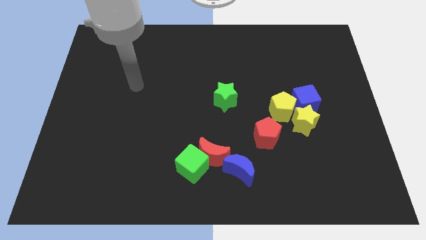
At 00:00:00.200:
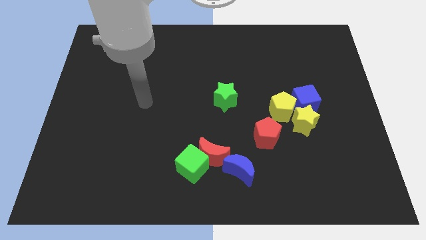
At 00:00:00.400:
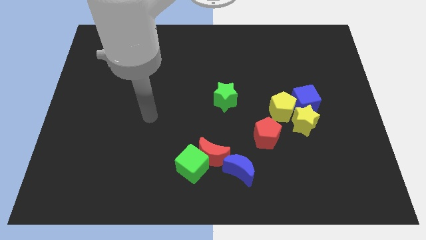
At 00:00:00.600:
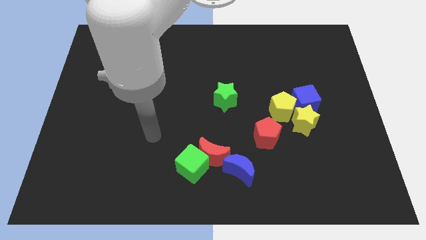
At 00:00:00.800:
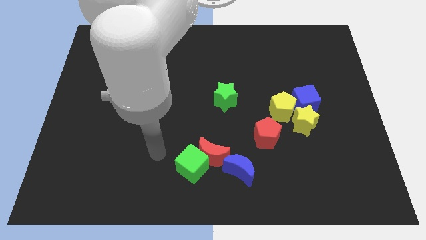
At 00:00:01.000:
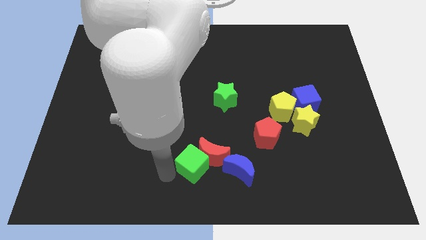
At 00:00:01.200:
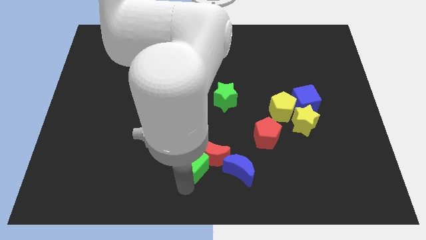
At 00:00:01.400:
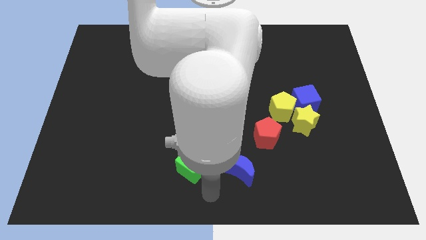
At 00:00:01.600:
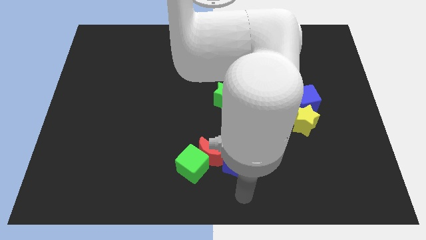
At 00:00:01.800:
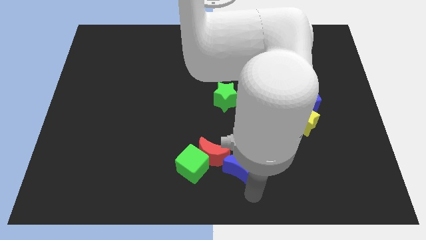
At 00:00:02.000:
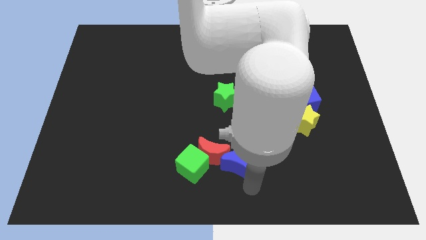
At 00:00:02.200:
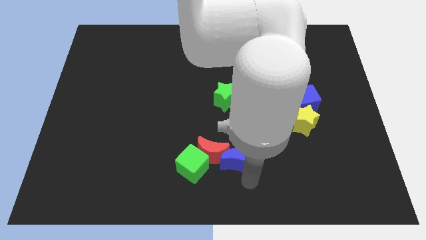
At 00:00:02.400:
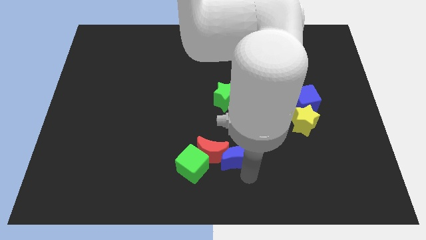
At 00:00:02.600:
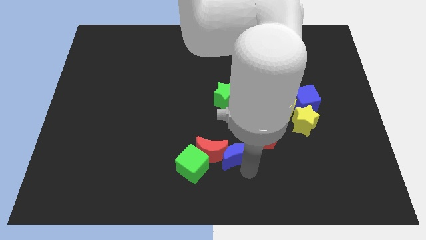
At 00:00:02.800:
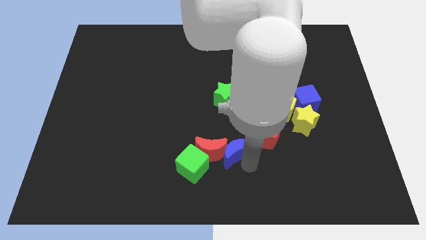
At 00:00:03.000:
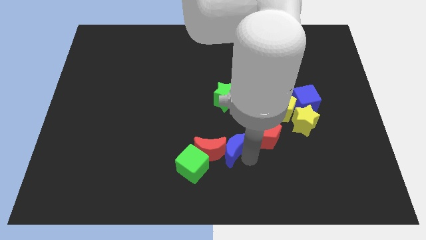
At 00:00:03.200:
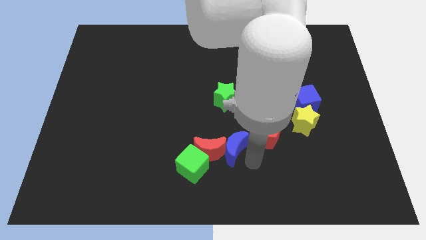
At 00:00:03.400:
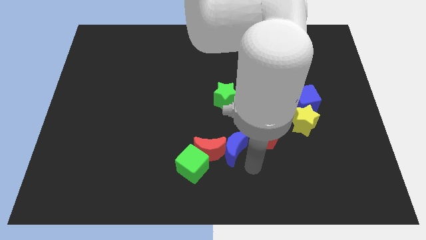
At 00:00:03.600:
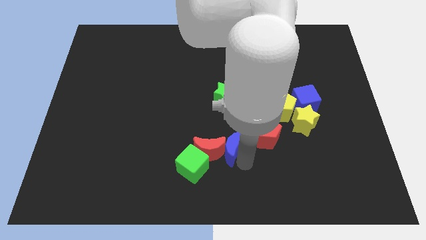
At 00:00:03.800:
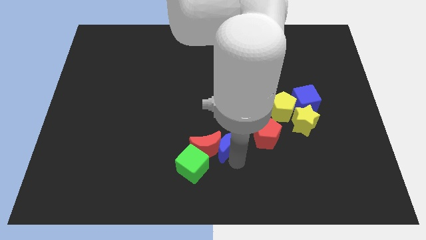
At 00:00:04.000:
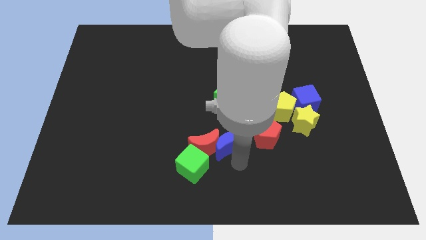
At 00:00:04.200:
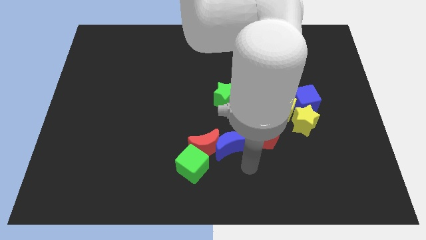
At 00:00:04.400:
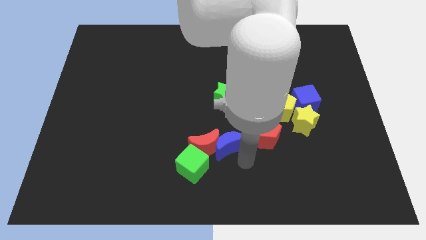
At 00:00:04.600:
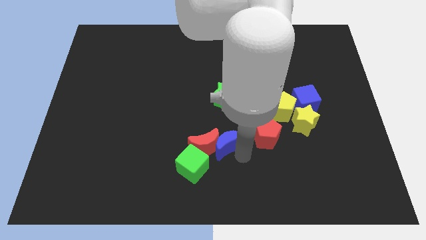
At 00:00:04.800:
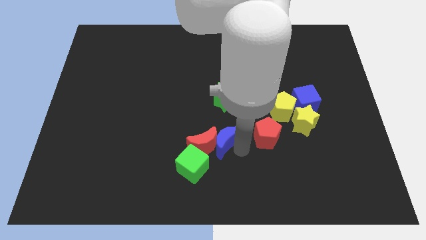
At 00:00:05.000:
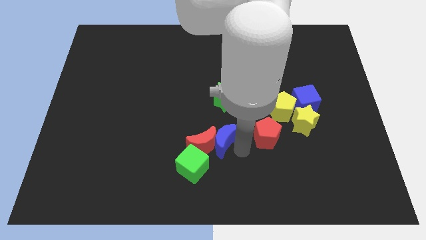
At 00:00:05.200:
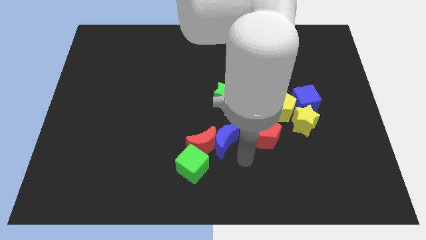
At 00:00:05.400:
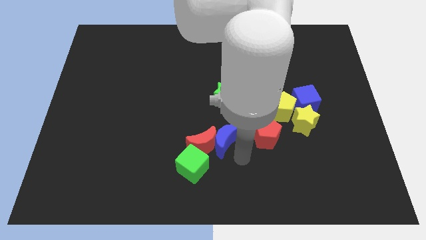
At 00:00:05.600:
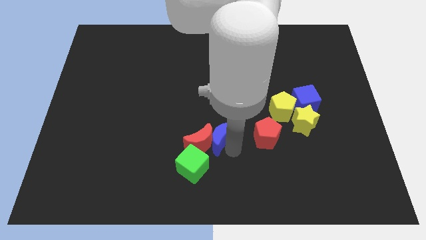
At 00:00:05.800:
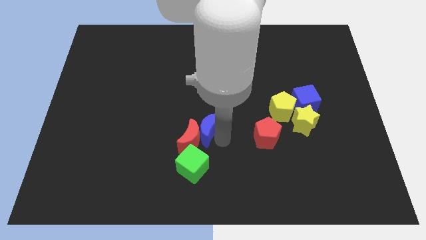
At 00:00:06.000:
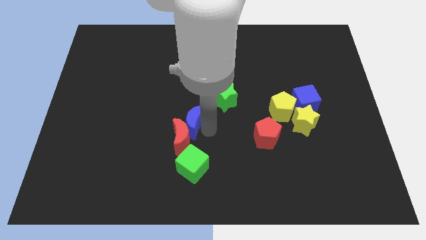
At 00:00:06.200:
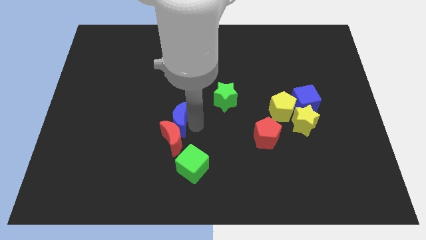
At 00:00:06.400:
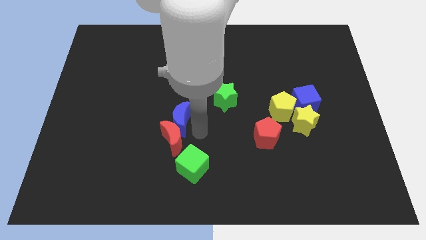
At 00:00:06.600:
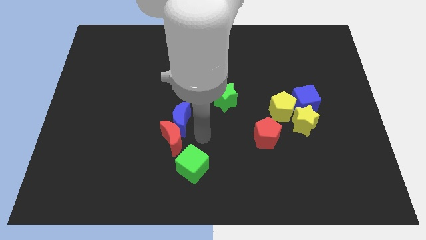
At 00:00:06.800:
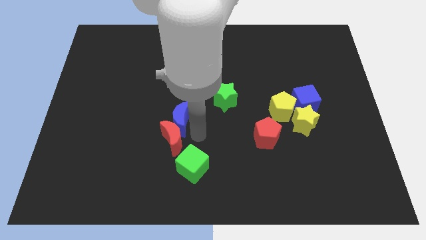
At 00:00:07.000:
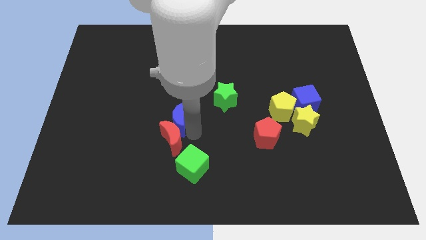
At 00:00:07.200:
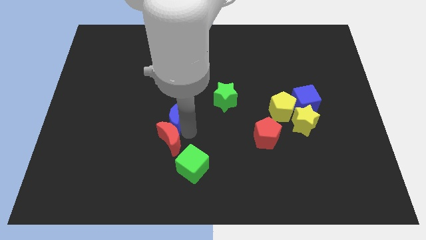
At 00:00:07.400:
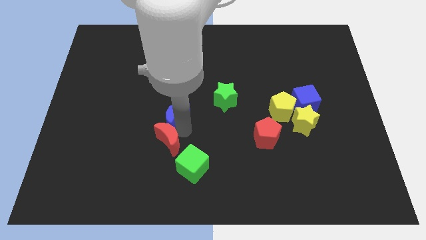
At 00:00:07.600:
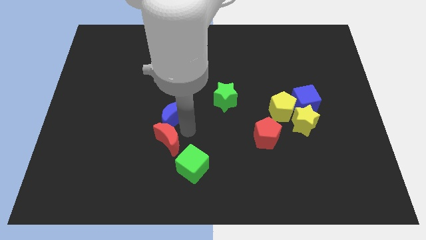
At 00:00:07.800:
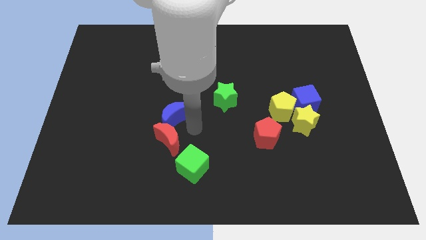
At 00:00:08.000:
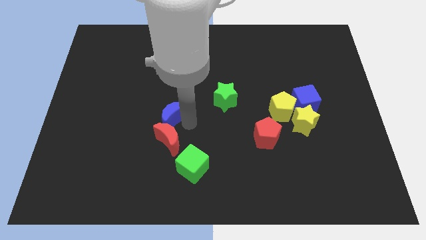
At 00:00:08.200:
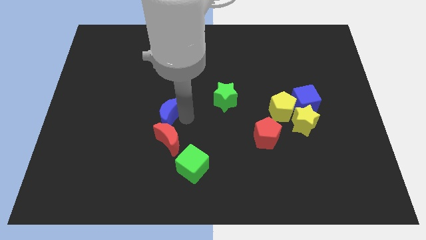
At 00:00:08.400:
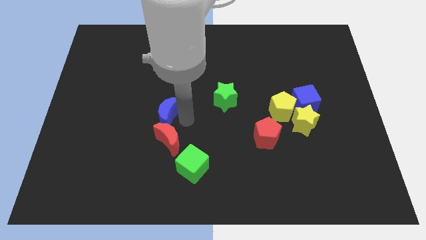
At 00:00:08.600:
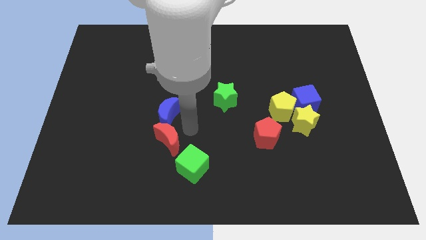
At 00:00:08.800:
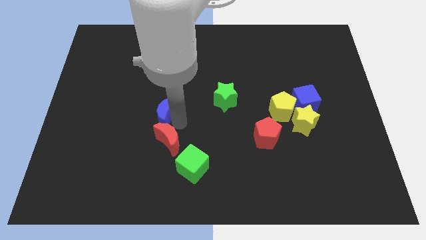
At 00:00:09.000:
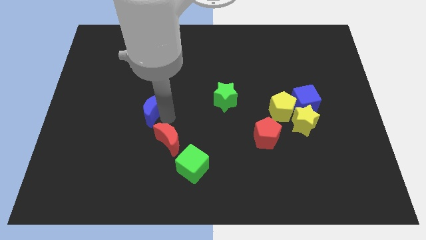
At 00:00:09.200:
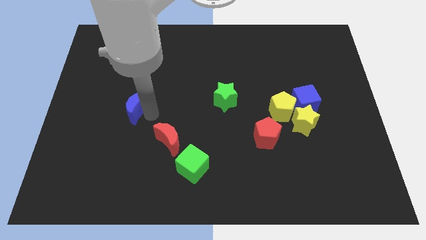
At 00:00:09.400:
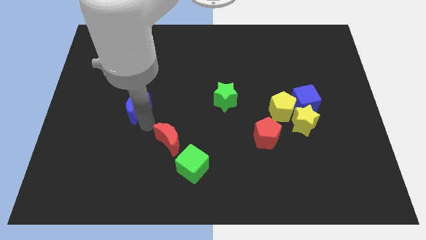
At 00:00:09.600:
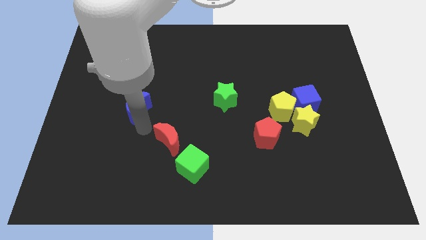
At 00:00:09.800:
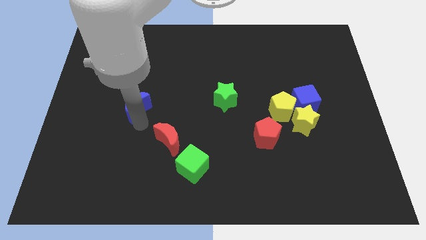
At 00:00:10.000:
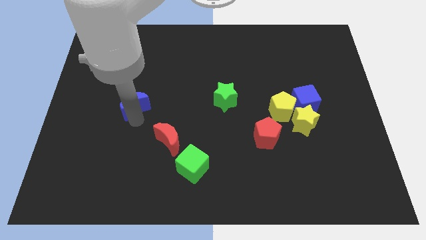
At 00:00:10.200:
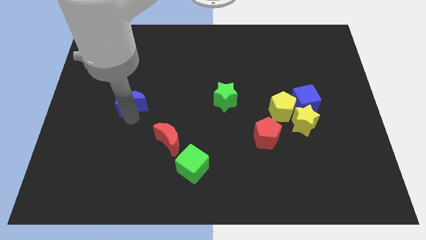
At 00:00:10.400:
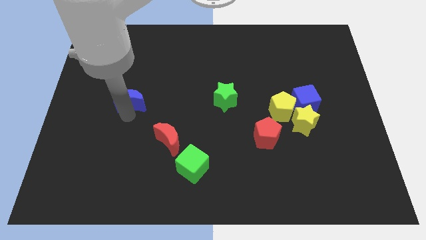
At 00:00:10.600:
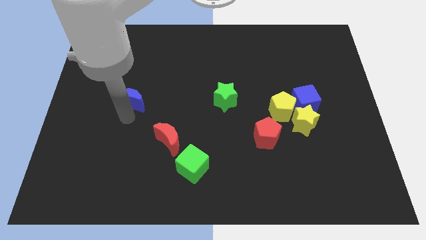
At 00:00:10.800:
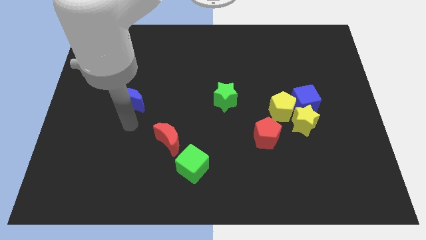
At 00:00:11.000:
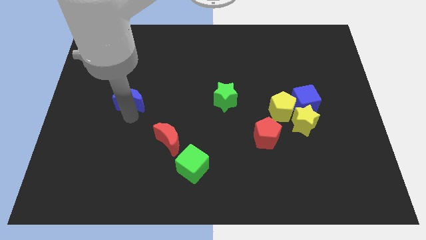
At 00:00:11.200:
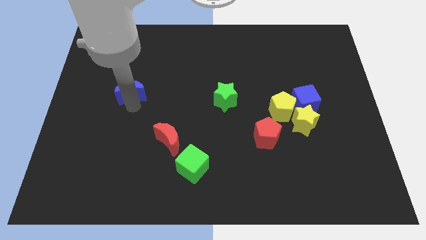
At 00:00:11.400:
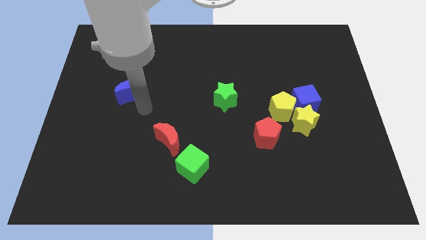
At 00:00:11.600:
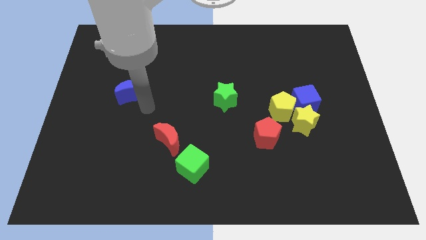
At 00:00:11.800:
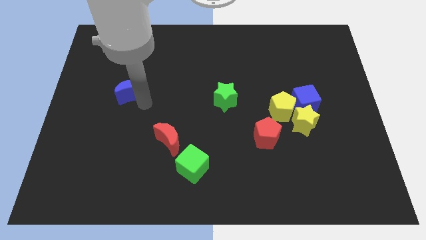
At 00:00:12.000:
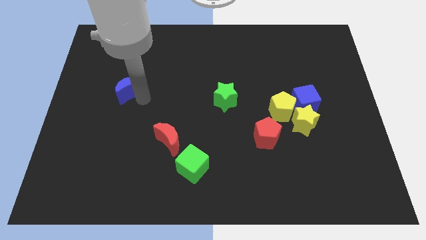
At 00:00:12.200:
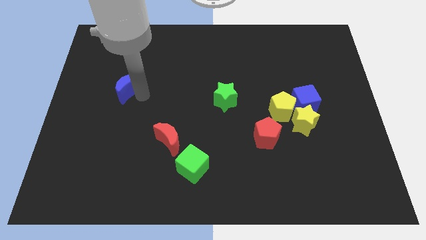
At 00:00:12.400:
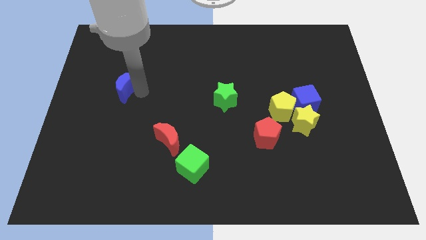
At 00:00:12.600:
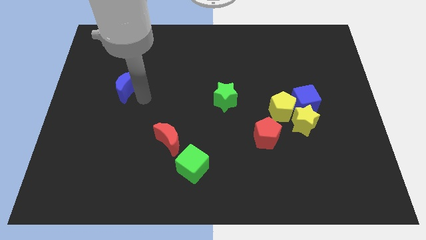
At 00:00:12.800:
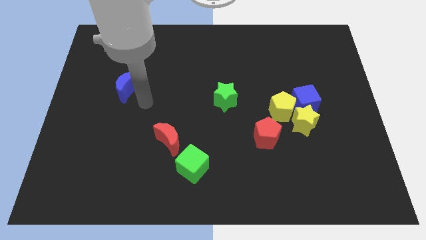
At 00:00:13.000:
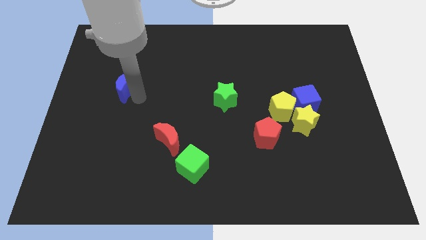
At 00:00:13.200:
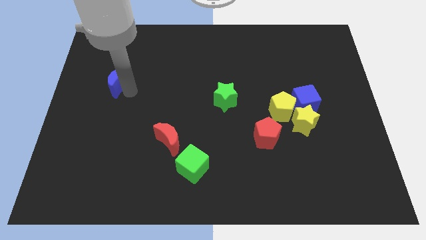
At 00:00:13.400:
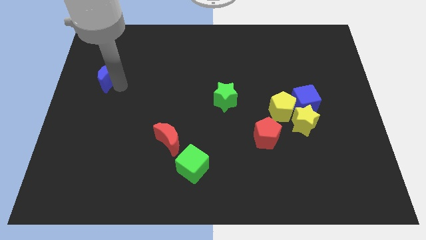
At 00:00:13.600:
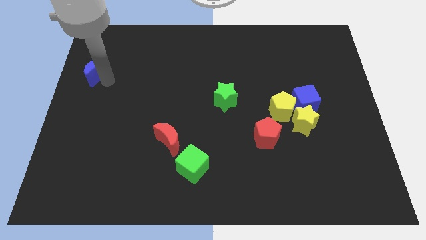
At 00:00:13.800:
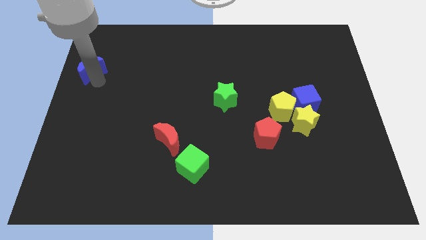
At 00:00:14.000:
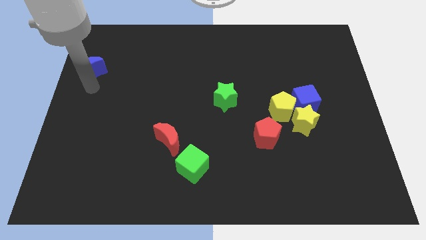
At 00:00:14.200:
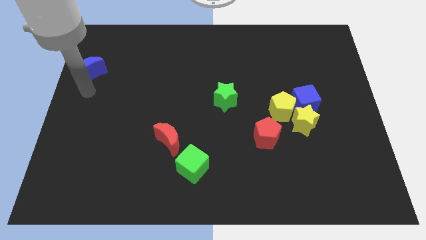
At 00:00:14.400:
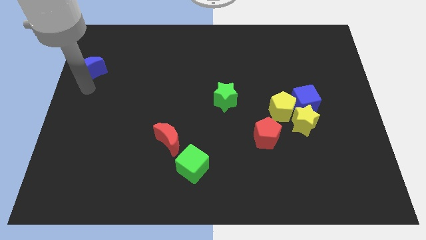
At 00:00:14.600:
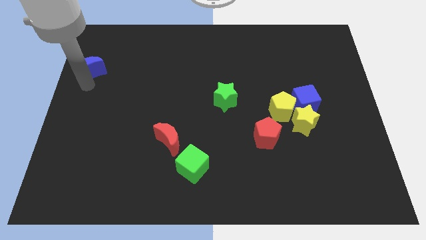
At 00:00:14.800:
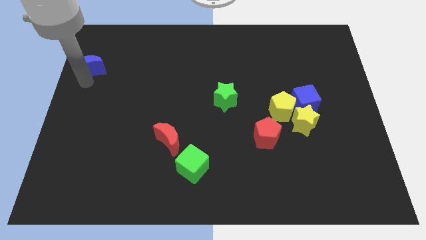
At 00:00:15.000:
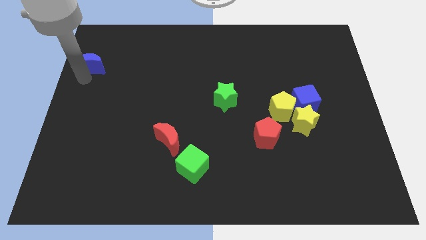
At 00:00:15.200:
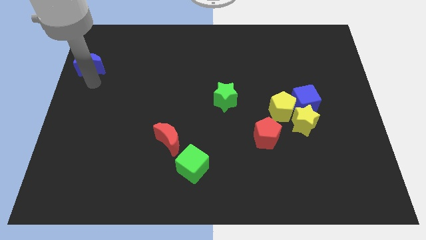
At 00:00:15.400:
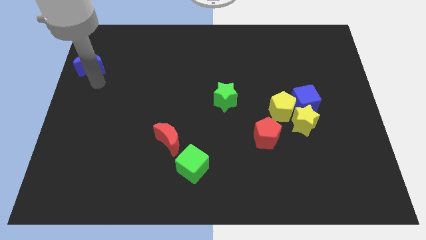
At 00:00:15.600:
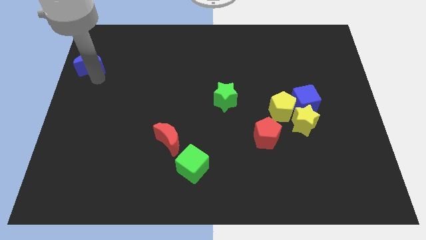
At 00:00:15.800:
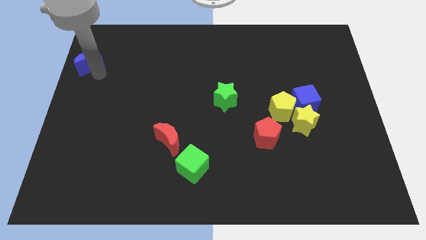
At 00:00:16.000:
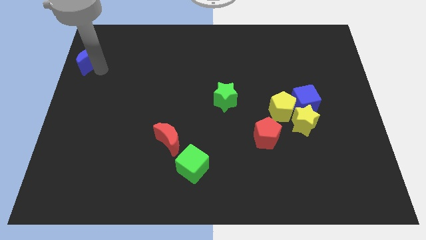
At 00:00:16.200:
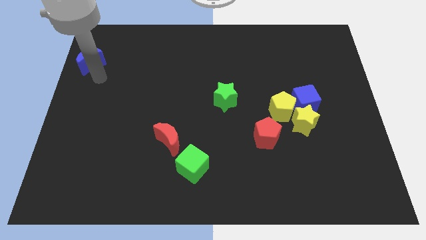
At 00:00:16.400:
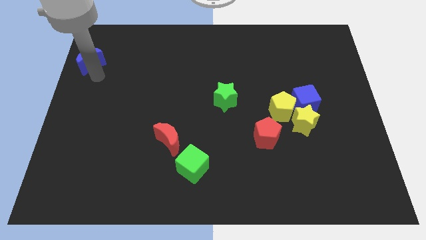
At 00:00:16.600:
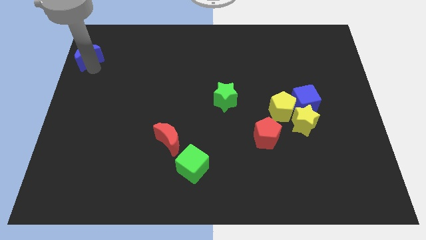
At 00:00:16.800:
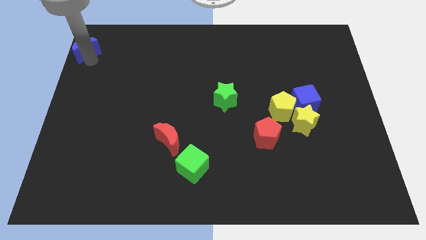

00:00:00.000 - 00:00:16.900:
move the blue moon to the top left of the board
